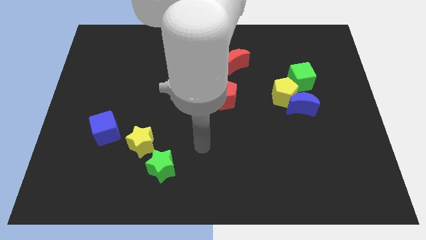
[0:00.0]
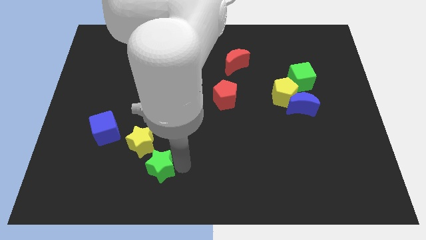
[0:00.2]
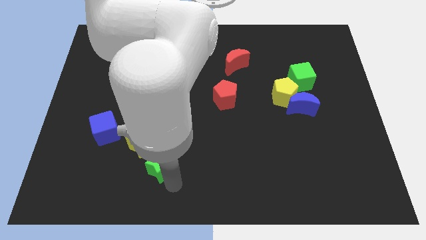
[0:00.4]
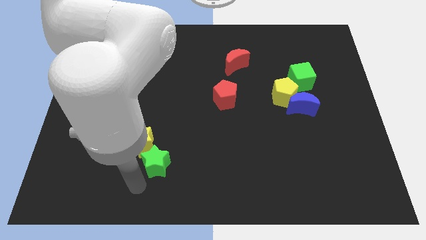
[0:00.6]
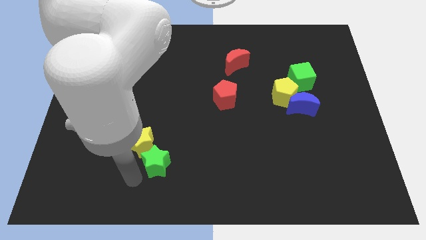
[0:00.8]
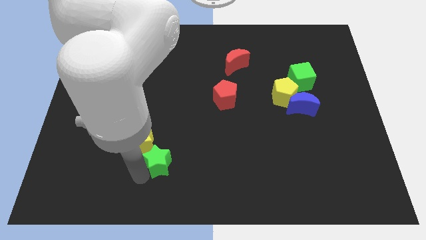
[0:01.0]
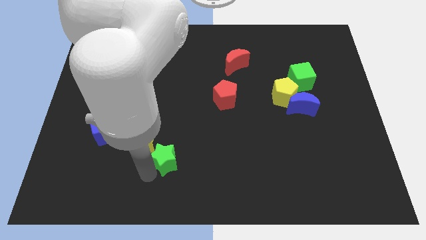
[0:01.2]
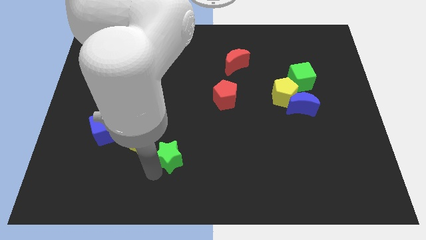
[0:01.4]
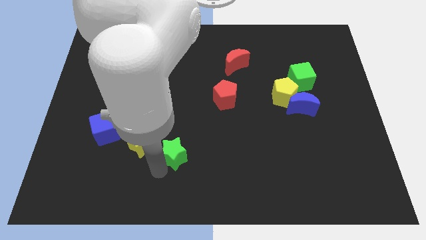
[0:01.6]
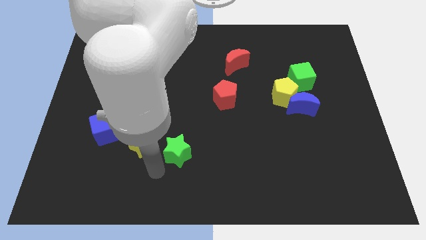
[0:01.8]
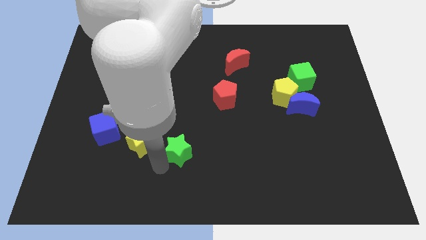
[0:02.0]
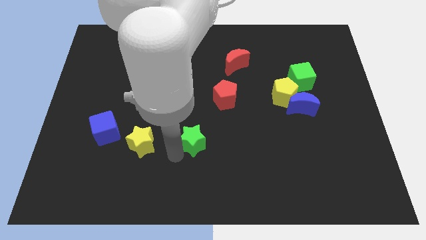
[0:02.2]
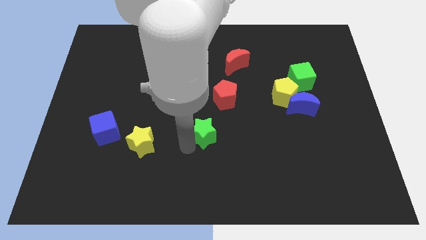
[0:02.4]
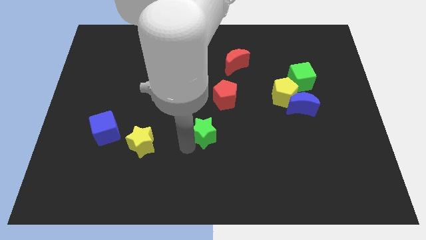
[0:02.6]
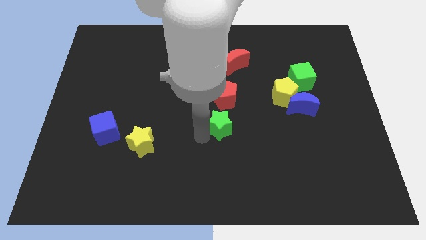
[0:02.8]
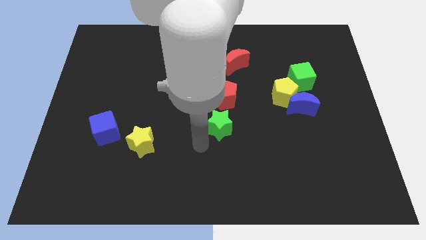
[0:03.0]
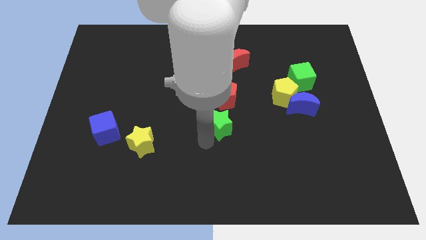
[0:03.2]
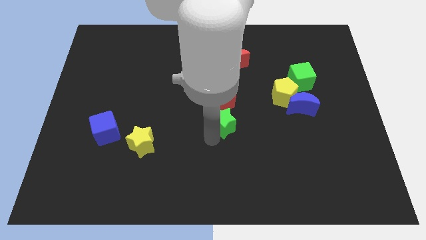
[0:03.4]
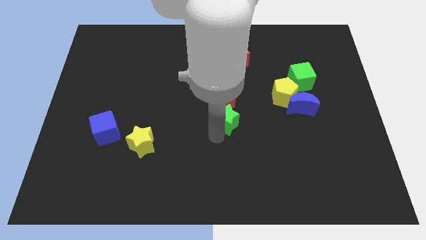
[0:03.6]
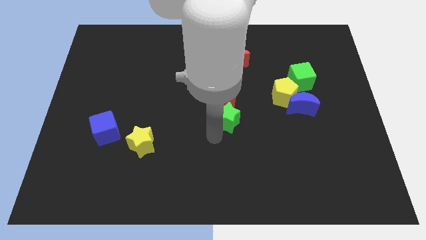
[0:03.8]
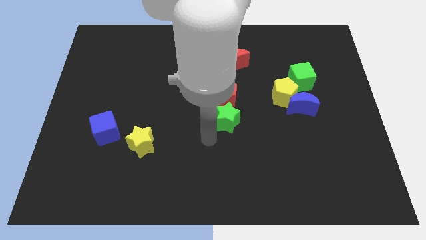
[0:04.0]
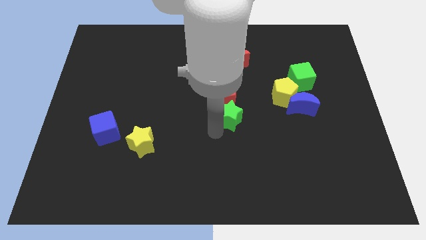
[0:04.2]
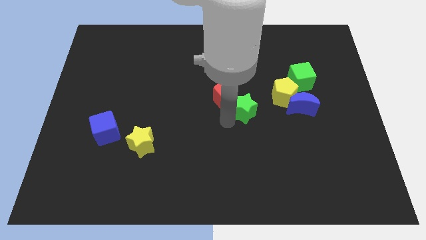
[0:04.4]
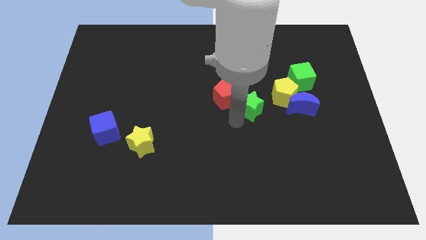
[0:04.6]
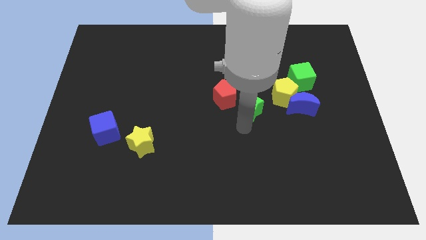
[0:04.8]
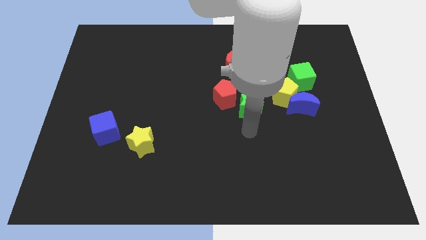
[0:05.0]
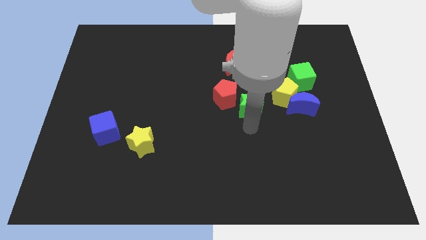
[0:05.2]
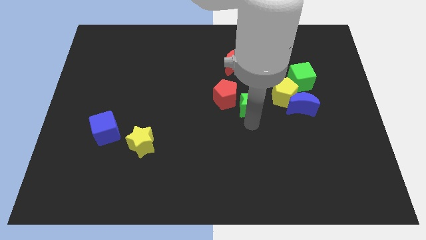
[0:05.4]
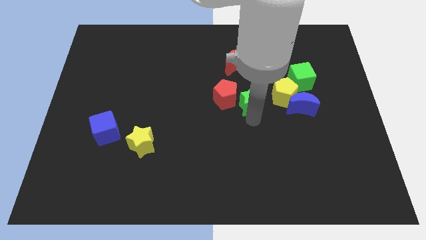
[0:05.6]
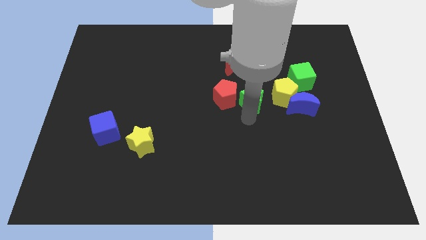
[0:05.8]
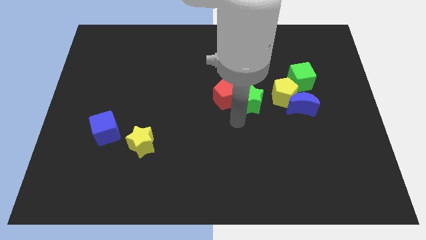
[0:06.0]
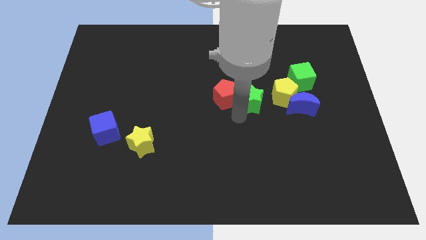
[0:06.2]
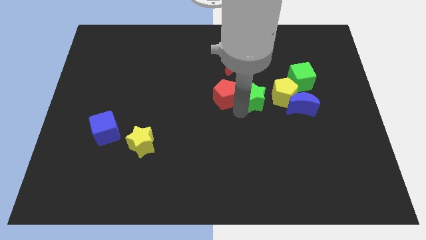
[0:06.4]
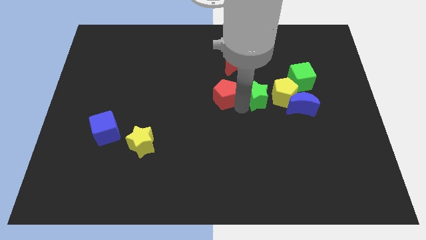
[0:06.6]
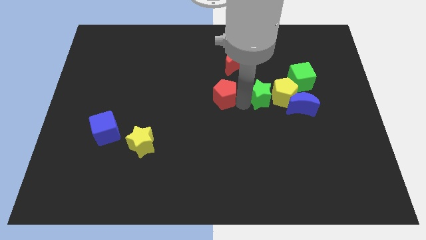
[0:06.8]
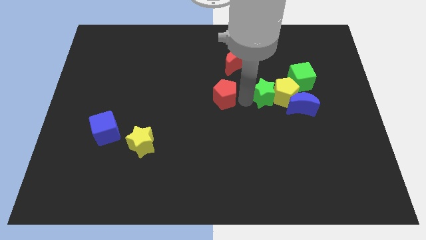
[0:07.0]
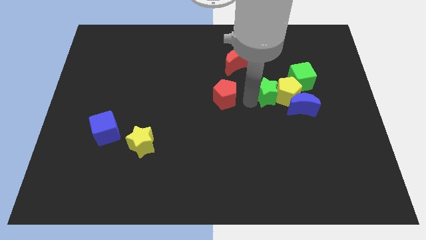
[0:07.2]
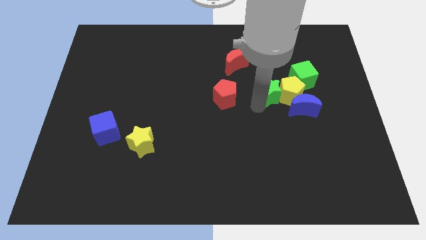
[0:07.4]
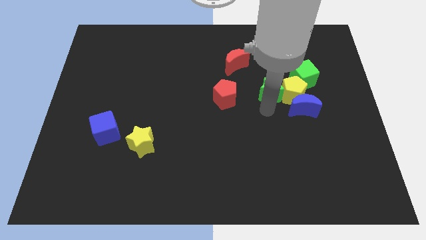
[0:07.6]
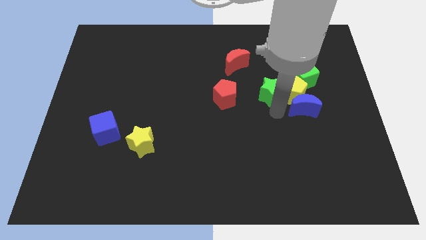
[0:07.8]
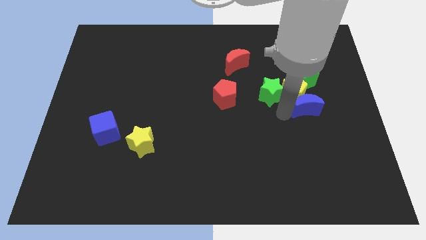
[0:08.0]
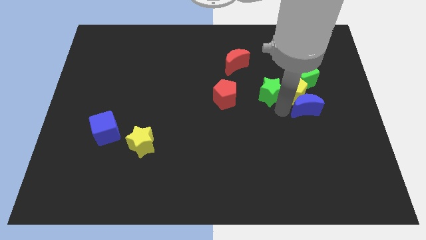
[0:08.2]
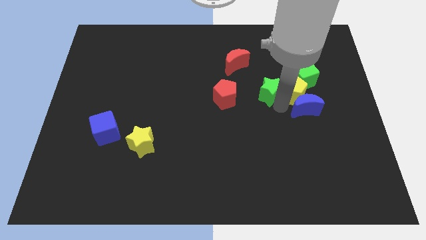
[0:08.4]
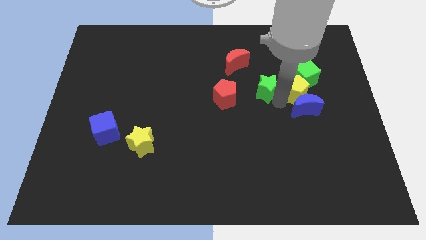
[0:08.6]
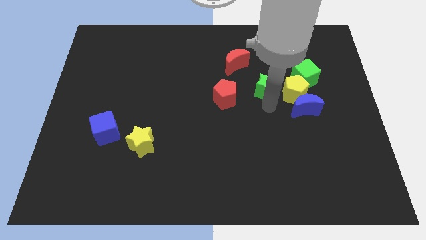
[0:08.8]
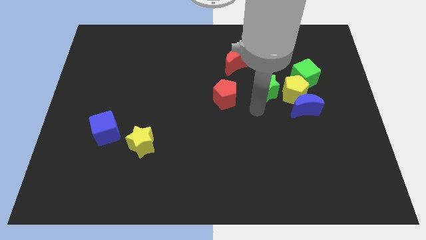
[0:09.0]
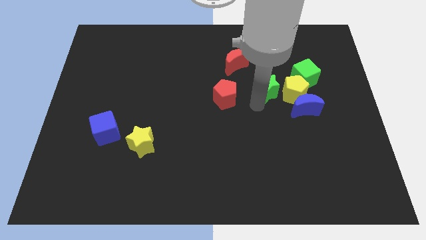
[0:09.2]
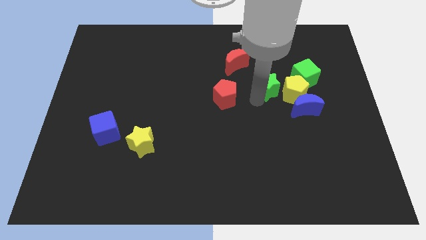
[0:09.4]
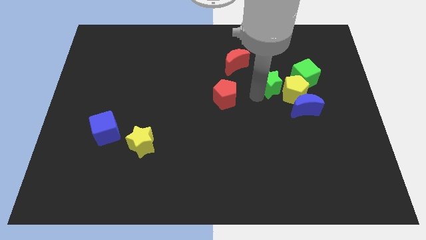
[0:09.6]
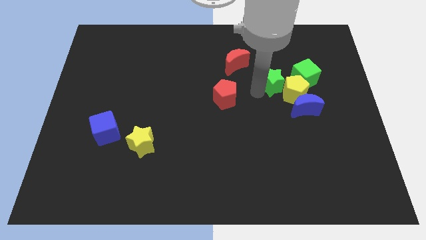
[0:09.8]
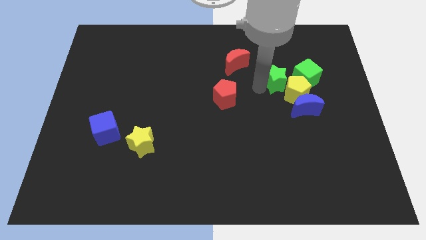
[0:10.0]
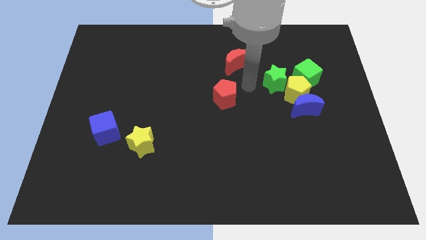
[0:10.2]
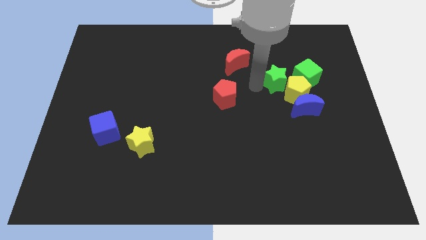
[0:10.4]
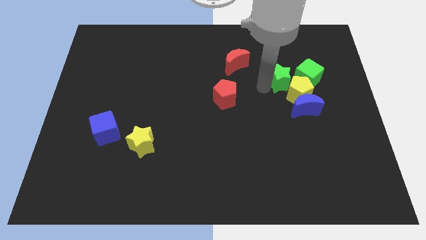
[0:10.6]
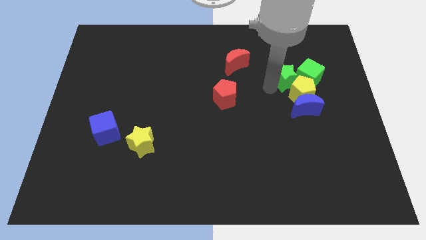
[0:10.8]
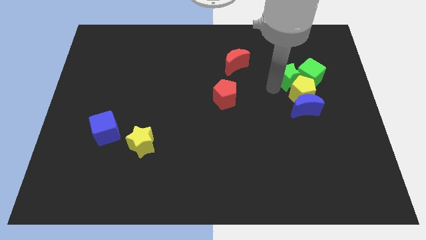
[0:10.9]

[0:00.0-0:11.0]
put the green star close to the green cube

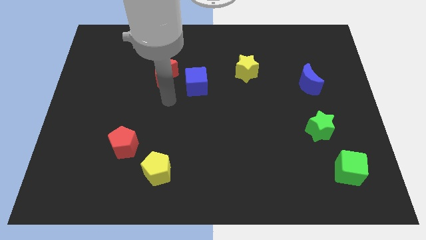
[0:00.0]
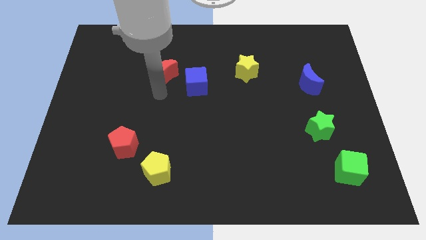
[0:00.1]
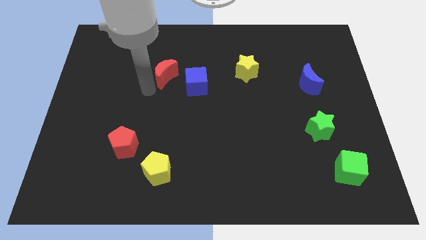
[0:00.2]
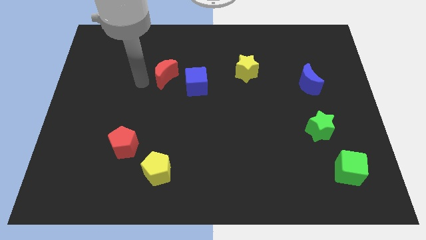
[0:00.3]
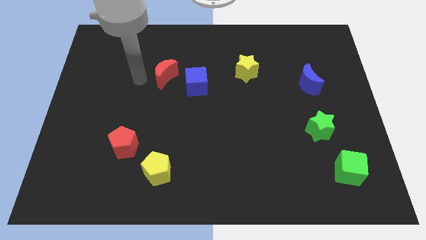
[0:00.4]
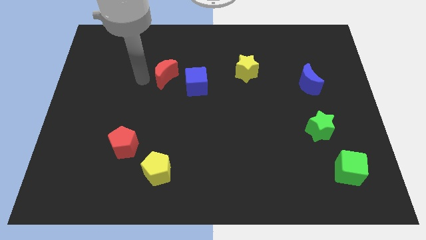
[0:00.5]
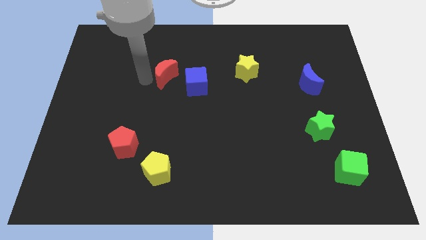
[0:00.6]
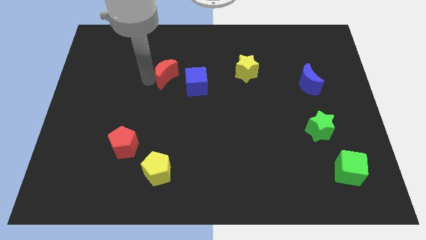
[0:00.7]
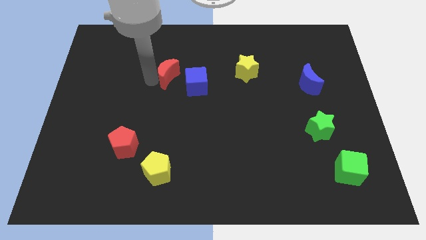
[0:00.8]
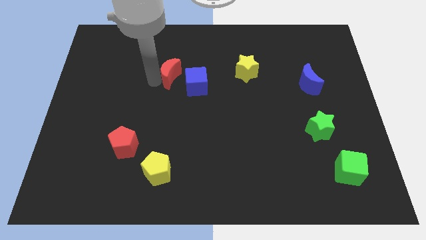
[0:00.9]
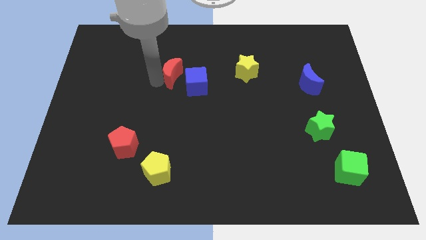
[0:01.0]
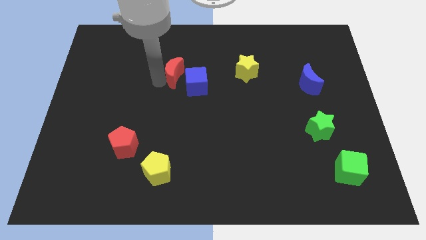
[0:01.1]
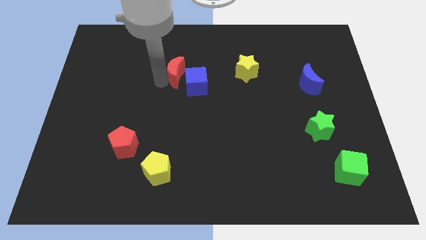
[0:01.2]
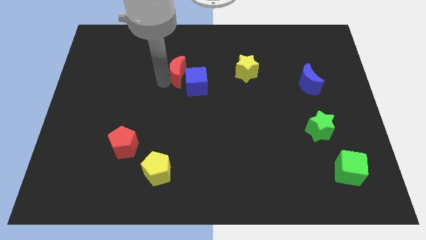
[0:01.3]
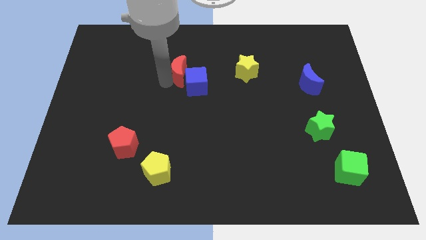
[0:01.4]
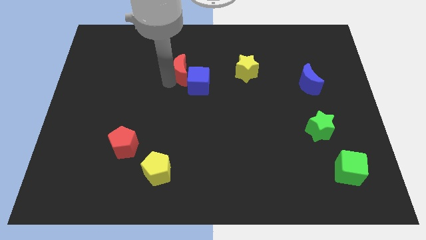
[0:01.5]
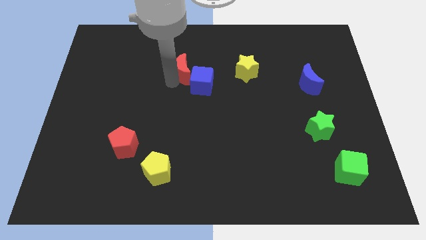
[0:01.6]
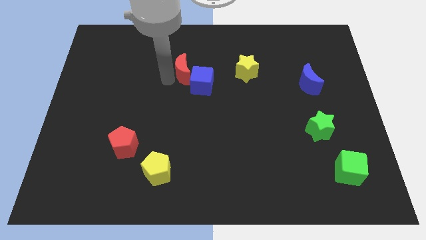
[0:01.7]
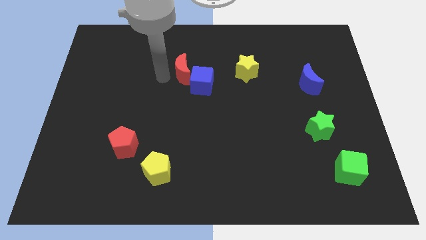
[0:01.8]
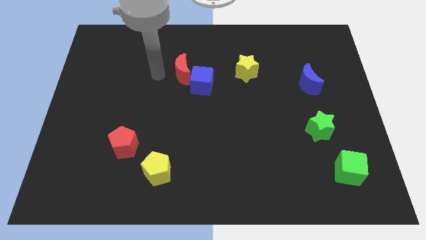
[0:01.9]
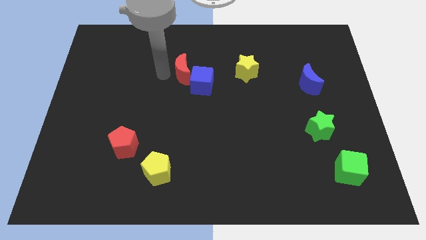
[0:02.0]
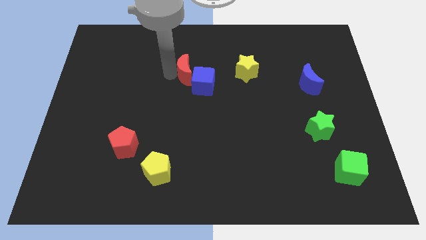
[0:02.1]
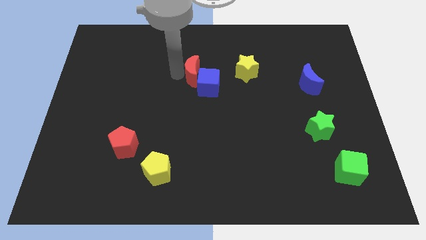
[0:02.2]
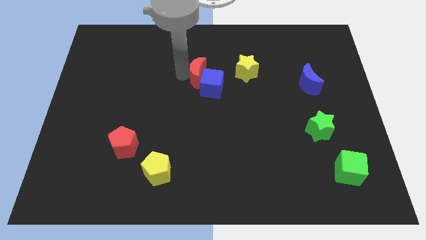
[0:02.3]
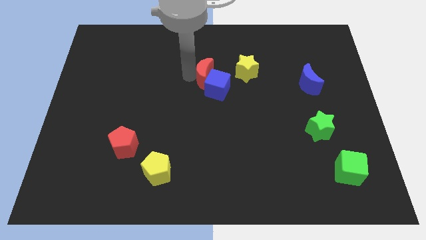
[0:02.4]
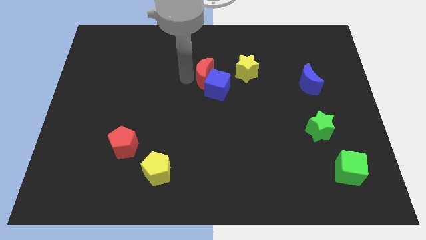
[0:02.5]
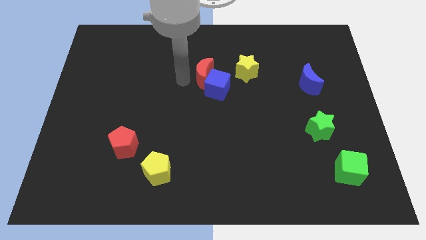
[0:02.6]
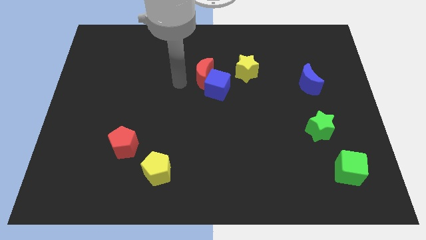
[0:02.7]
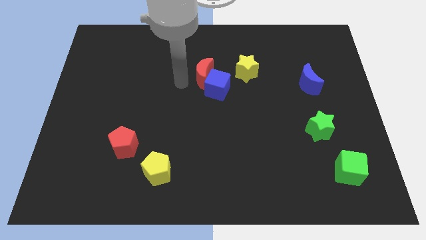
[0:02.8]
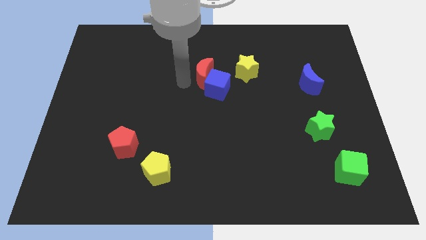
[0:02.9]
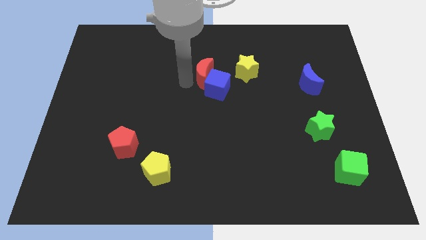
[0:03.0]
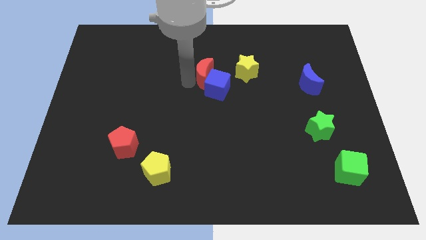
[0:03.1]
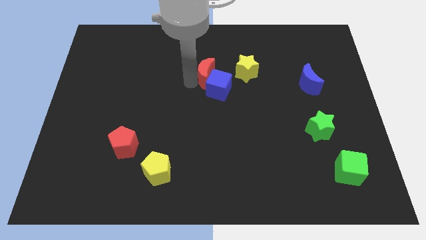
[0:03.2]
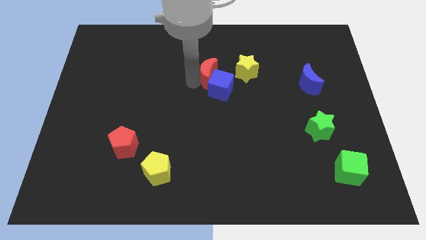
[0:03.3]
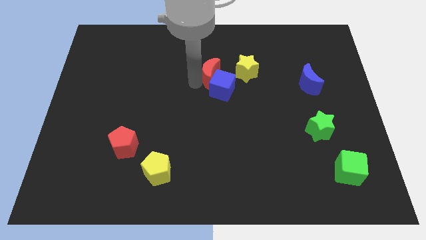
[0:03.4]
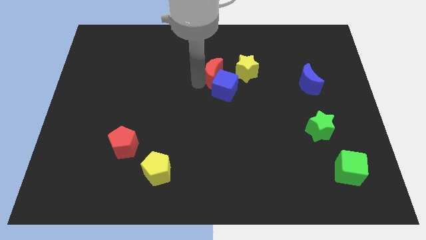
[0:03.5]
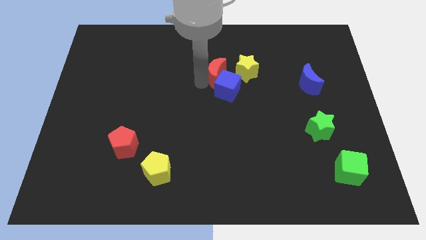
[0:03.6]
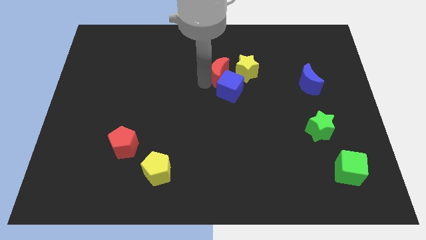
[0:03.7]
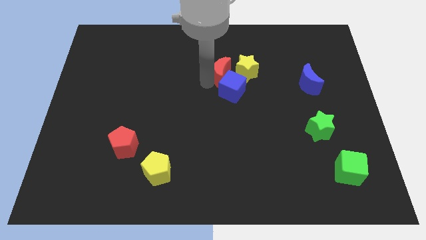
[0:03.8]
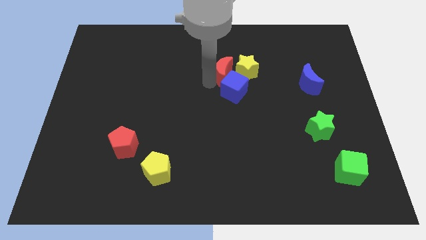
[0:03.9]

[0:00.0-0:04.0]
put the red moon to the yellow star
